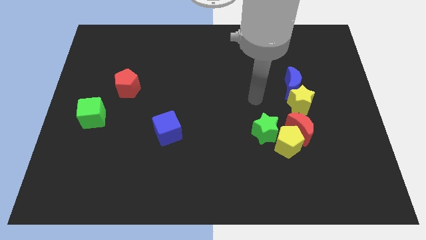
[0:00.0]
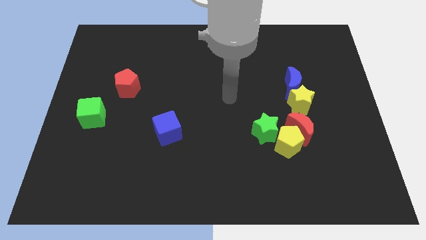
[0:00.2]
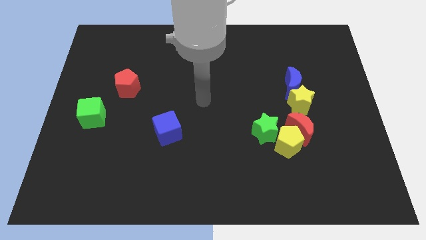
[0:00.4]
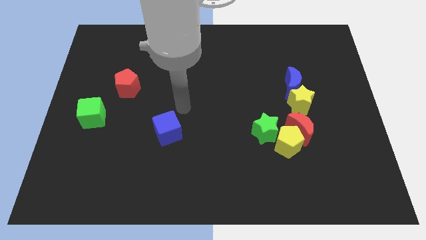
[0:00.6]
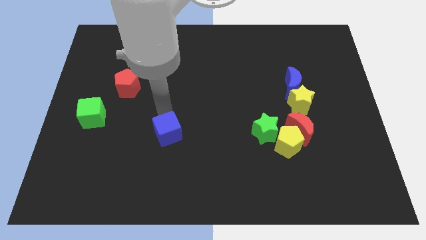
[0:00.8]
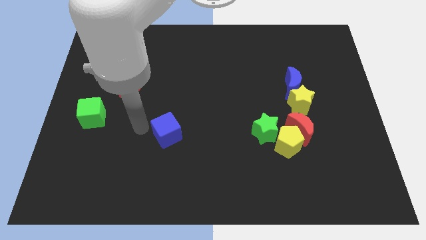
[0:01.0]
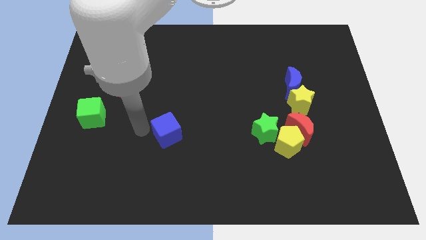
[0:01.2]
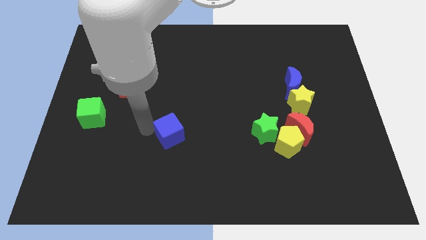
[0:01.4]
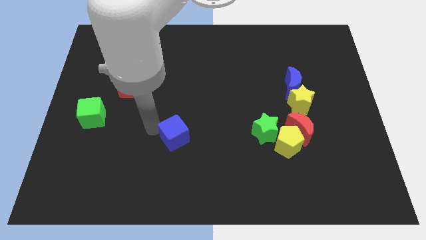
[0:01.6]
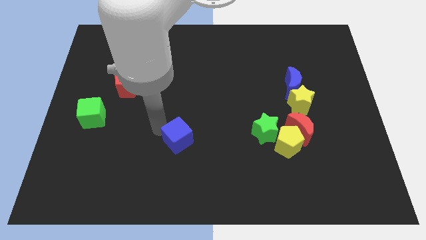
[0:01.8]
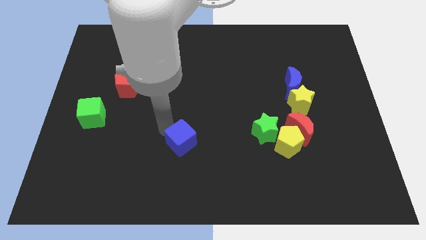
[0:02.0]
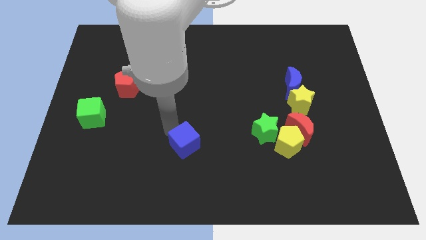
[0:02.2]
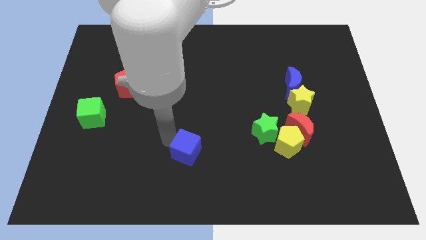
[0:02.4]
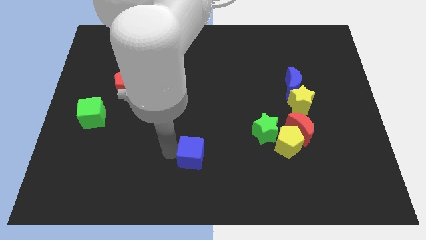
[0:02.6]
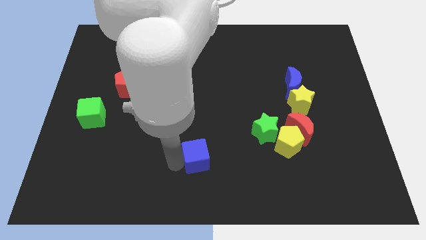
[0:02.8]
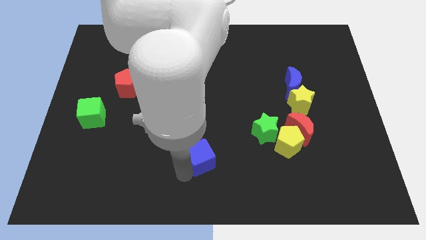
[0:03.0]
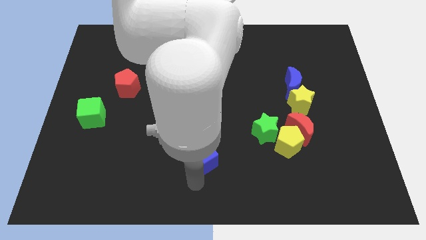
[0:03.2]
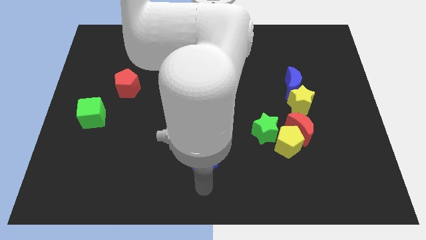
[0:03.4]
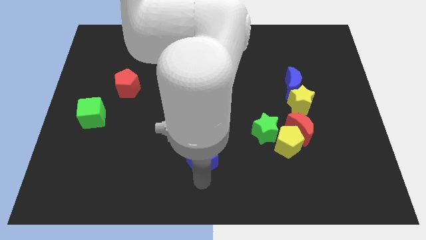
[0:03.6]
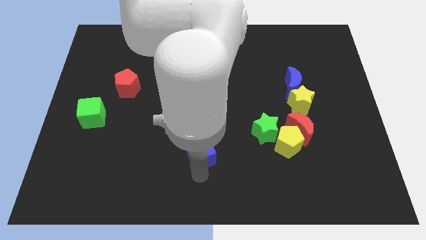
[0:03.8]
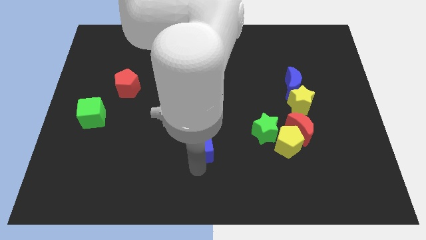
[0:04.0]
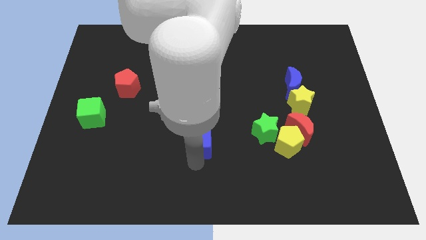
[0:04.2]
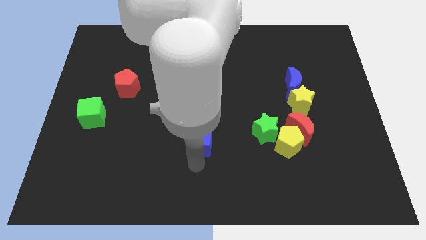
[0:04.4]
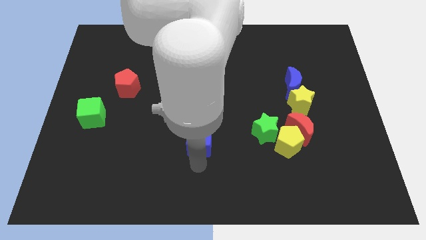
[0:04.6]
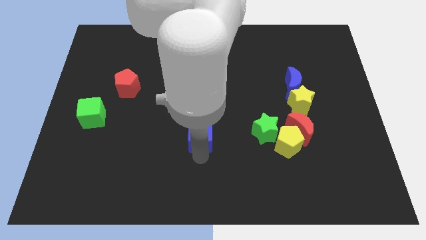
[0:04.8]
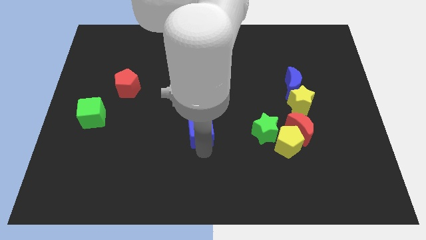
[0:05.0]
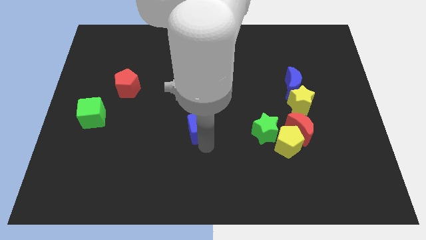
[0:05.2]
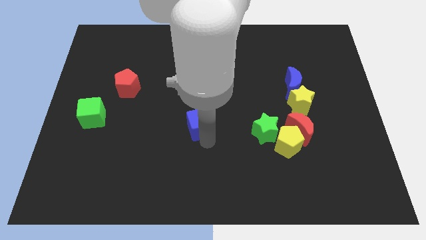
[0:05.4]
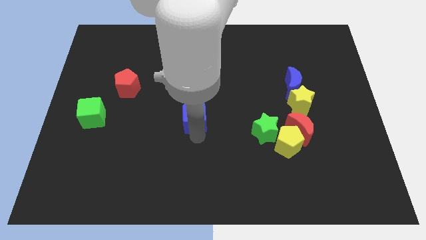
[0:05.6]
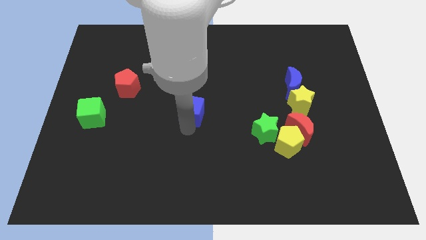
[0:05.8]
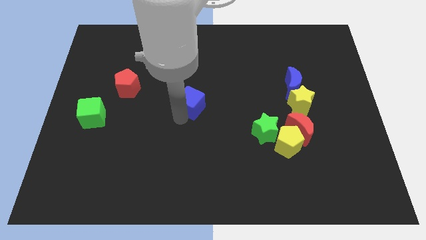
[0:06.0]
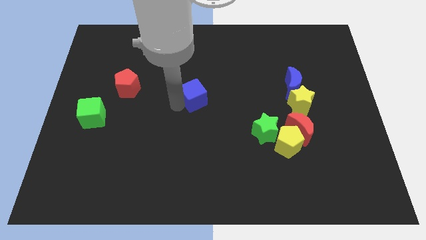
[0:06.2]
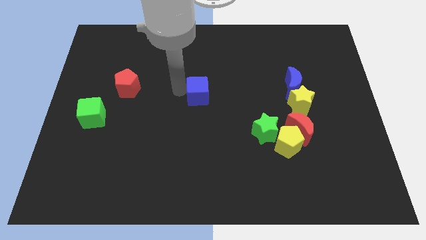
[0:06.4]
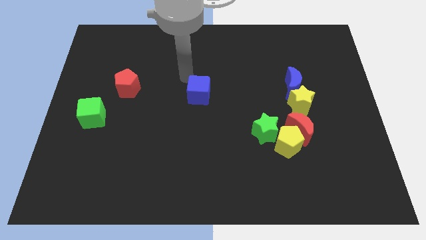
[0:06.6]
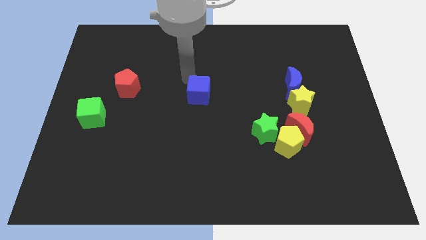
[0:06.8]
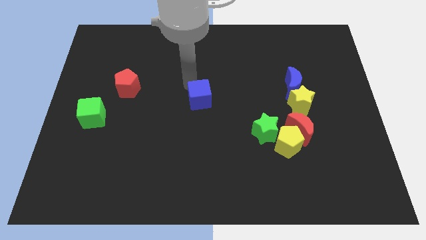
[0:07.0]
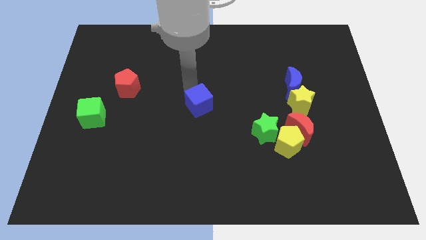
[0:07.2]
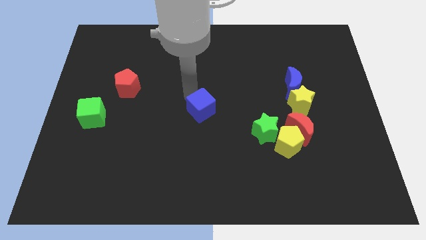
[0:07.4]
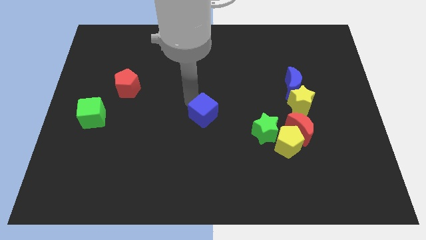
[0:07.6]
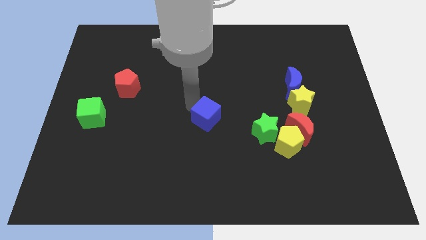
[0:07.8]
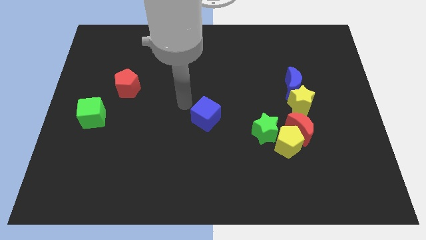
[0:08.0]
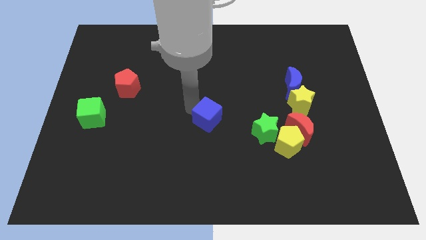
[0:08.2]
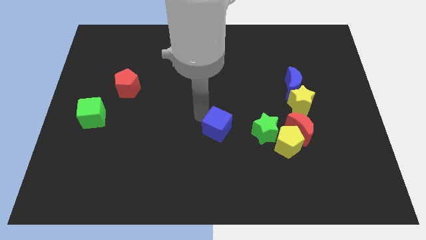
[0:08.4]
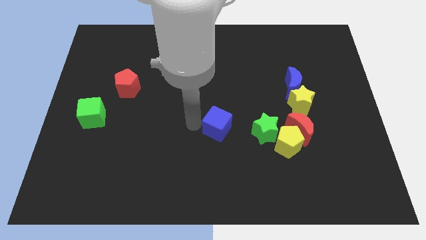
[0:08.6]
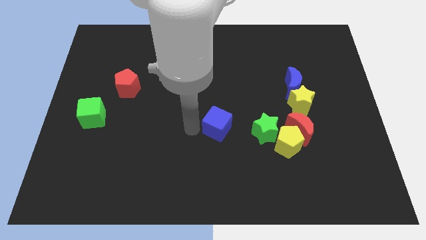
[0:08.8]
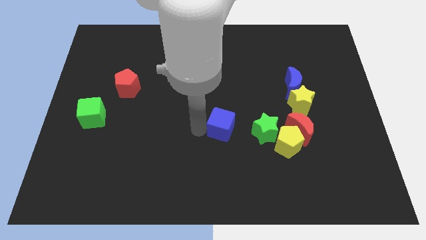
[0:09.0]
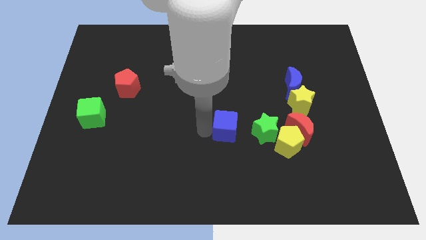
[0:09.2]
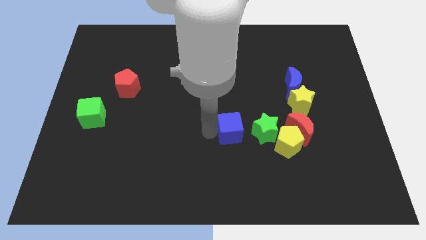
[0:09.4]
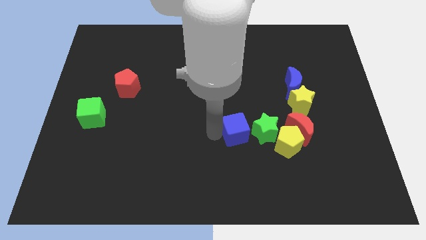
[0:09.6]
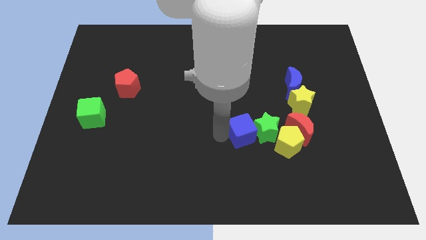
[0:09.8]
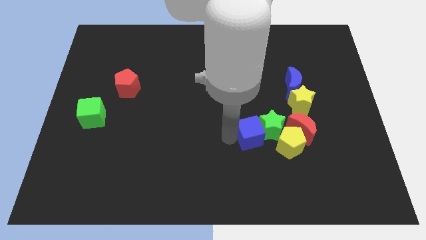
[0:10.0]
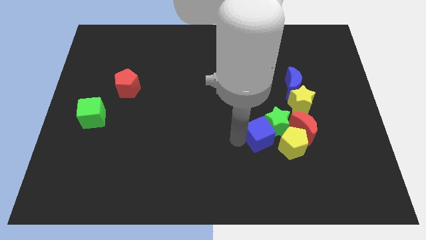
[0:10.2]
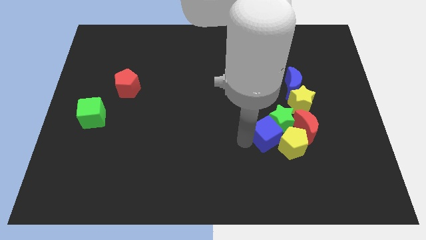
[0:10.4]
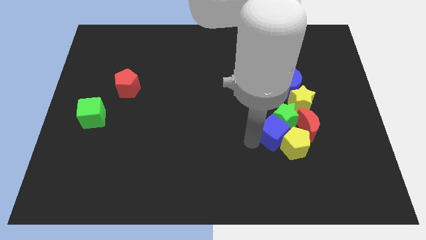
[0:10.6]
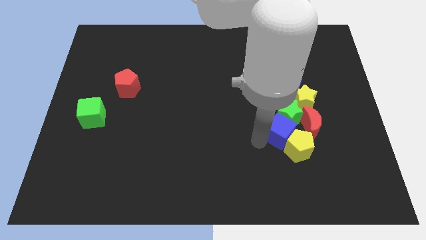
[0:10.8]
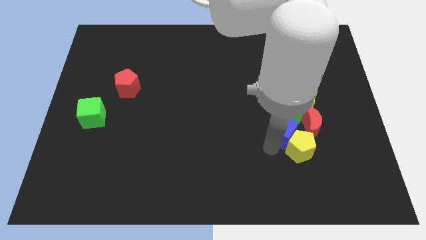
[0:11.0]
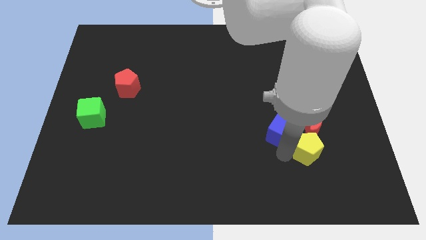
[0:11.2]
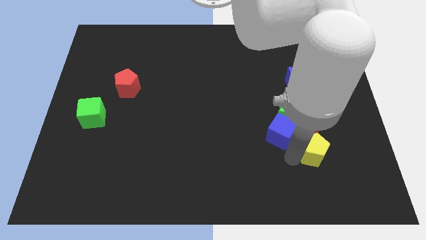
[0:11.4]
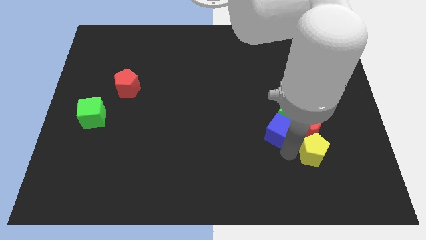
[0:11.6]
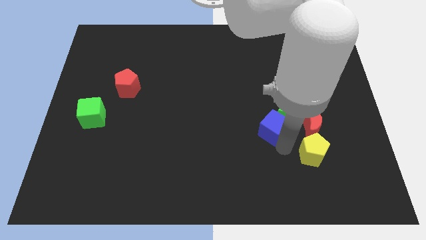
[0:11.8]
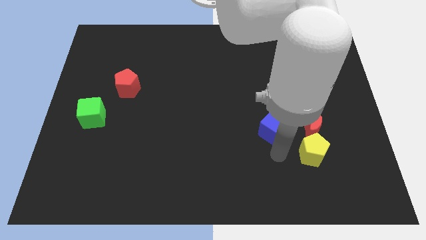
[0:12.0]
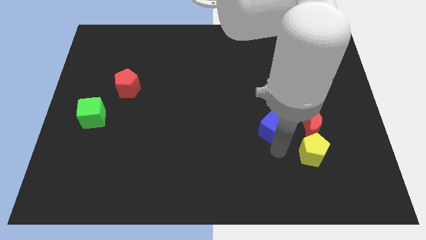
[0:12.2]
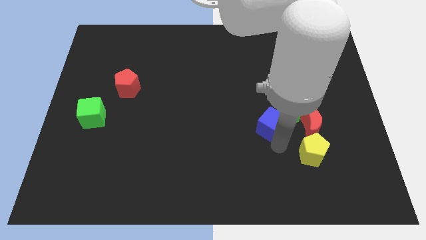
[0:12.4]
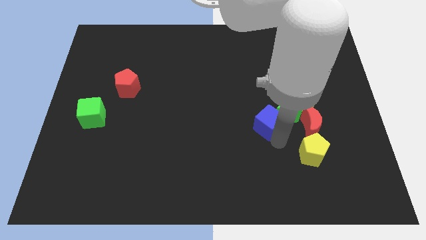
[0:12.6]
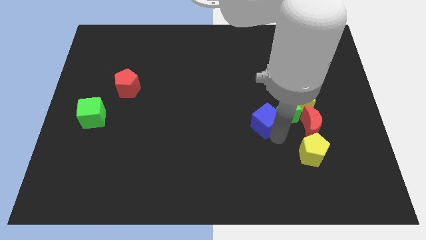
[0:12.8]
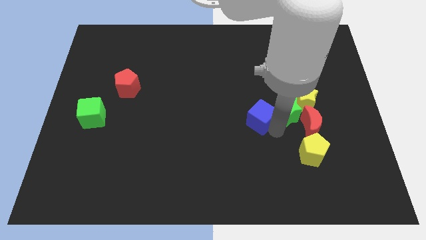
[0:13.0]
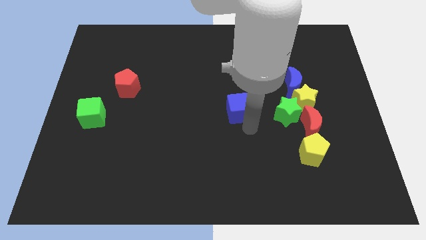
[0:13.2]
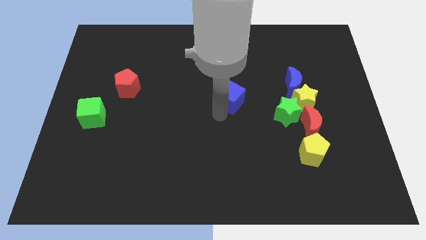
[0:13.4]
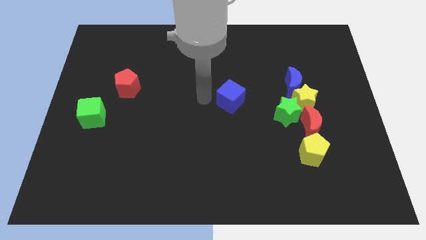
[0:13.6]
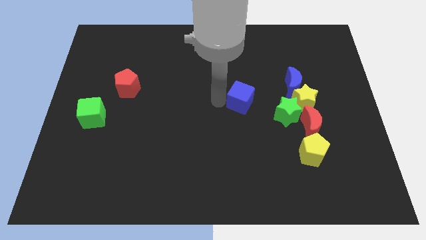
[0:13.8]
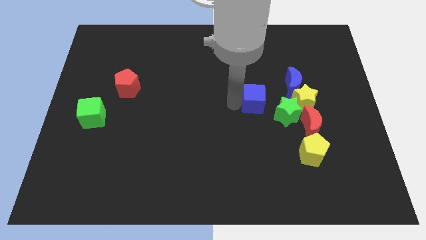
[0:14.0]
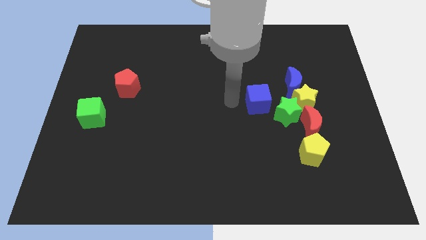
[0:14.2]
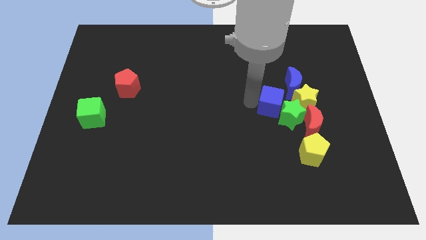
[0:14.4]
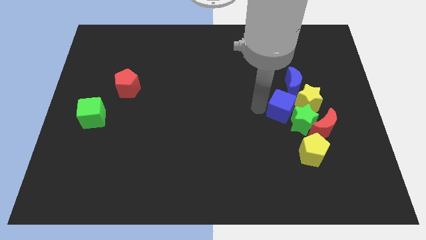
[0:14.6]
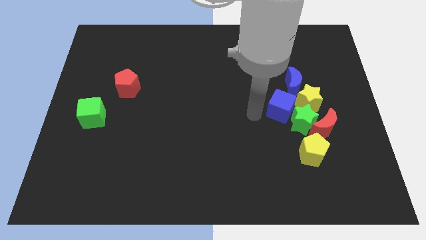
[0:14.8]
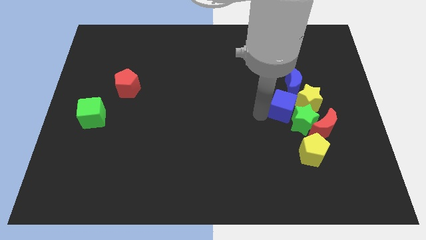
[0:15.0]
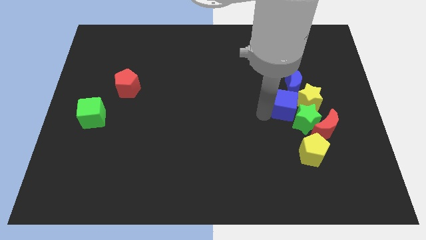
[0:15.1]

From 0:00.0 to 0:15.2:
slide the blue cube to the yellow star
